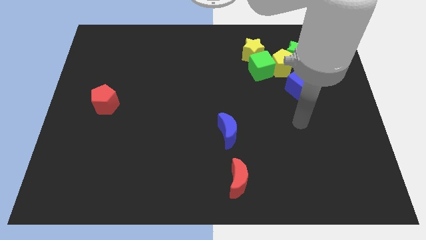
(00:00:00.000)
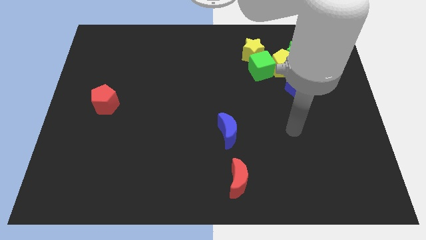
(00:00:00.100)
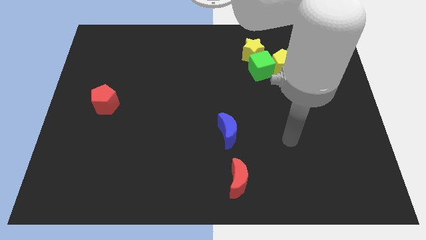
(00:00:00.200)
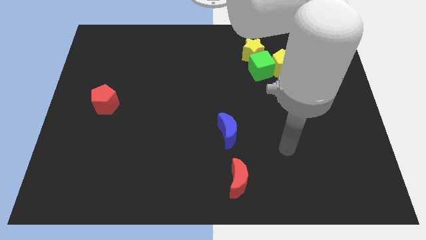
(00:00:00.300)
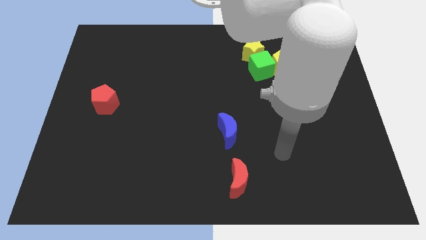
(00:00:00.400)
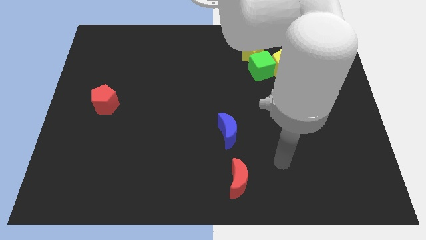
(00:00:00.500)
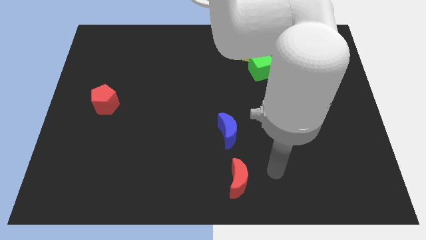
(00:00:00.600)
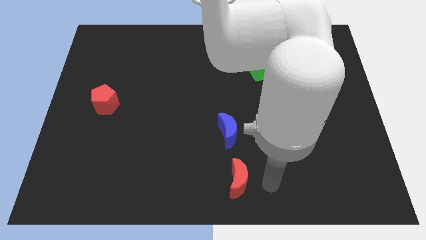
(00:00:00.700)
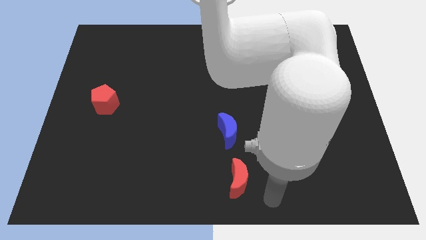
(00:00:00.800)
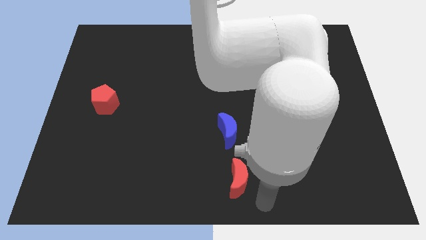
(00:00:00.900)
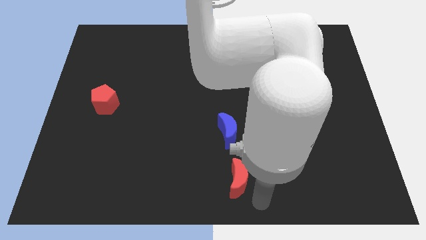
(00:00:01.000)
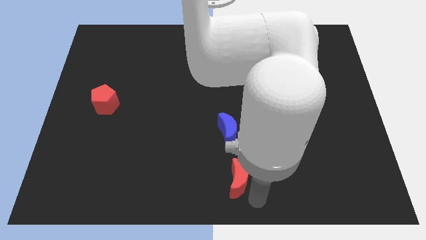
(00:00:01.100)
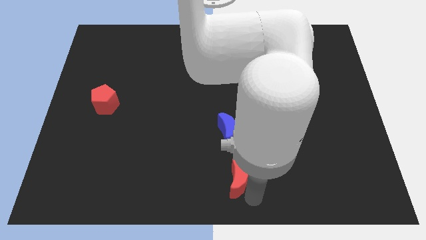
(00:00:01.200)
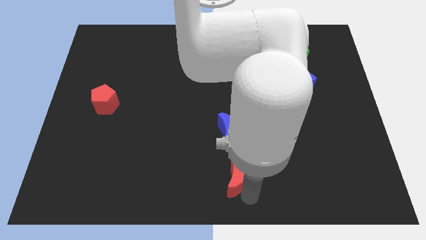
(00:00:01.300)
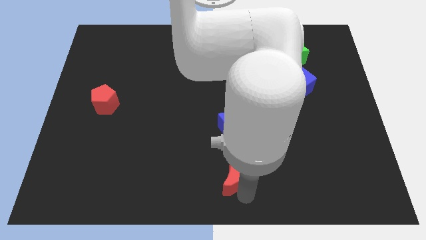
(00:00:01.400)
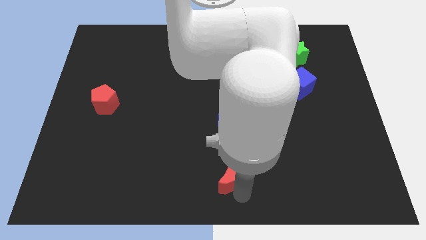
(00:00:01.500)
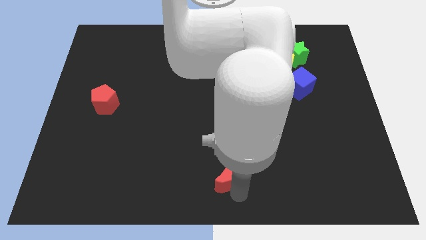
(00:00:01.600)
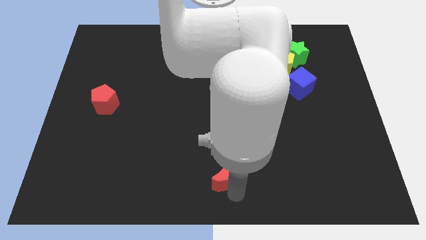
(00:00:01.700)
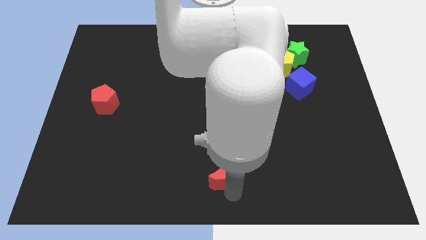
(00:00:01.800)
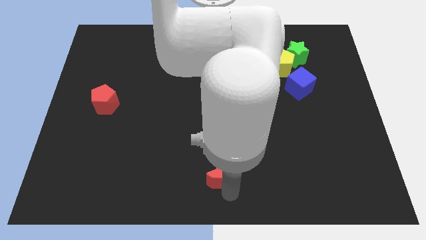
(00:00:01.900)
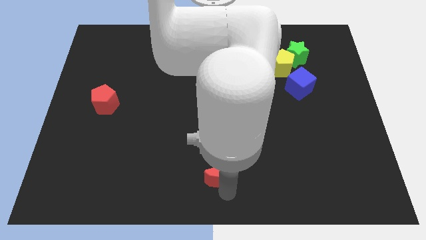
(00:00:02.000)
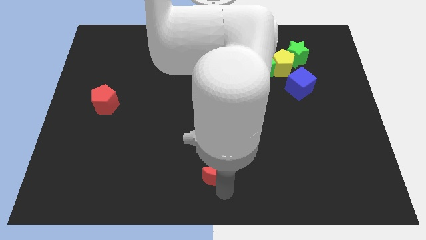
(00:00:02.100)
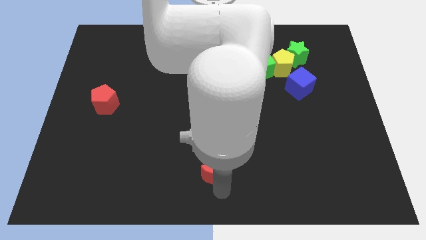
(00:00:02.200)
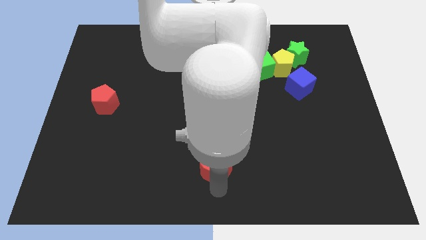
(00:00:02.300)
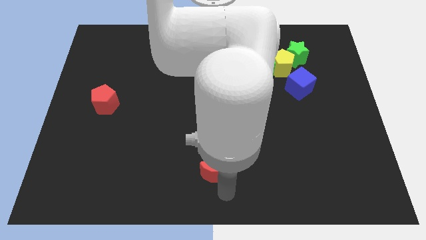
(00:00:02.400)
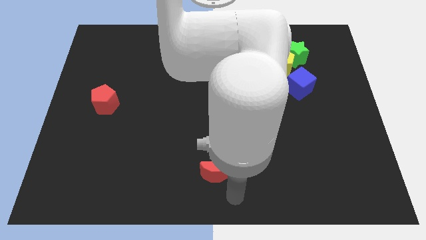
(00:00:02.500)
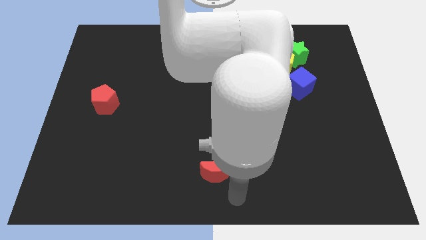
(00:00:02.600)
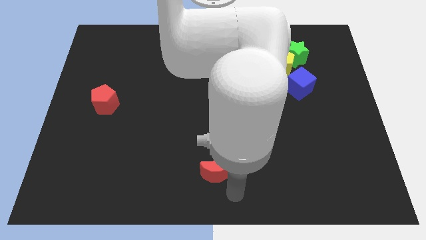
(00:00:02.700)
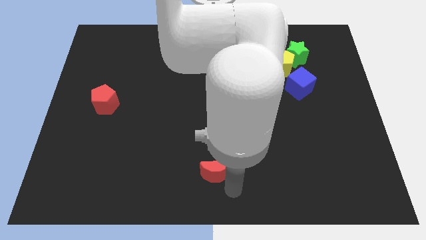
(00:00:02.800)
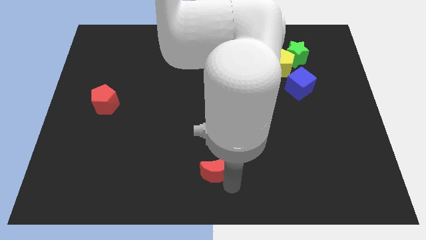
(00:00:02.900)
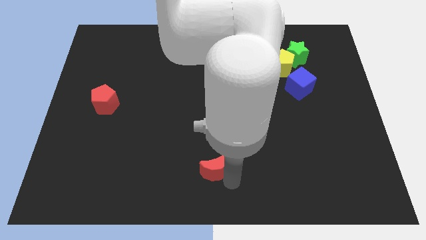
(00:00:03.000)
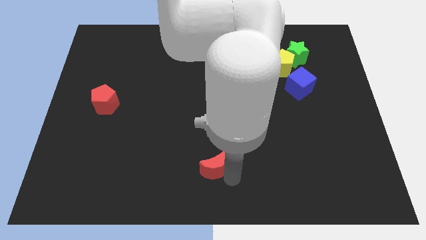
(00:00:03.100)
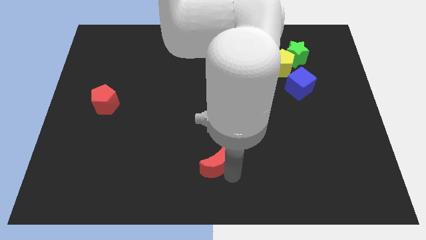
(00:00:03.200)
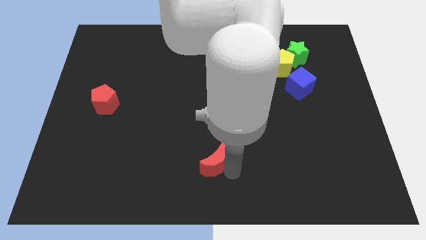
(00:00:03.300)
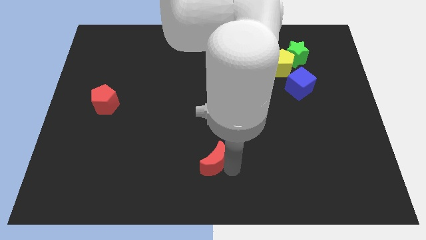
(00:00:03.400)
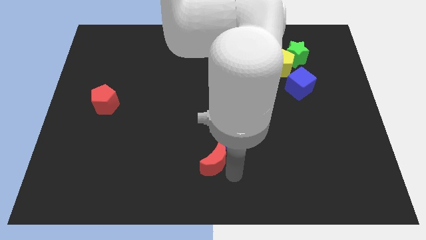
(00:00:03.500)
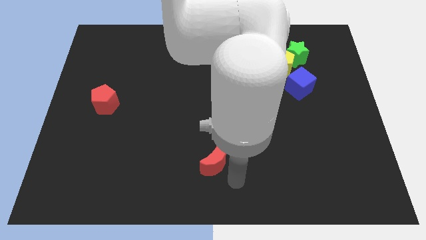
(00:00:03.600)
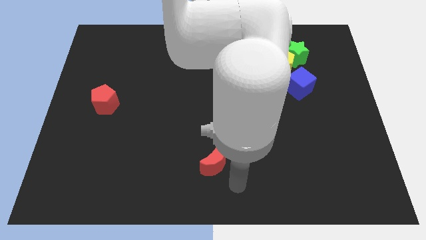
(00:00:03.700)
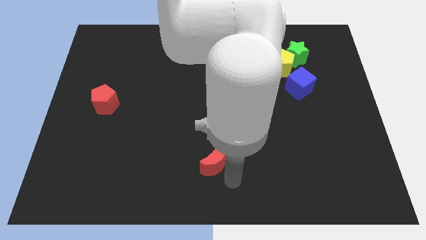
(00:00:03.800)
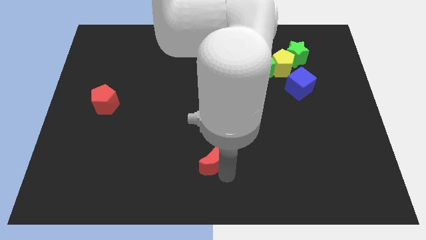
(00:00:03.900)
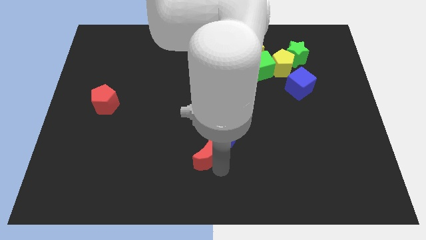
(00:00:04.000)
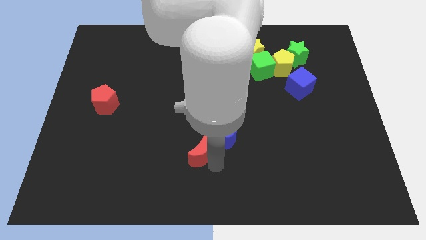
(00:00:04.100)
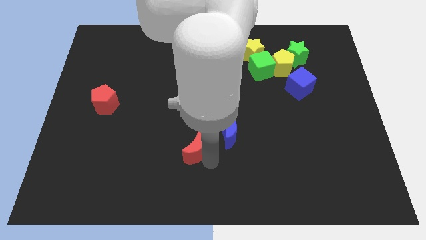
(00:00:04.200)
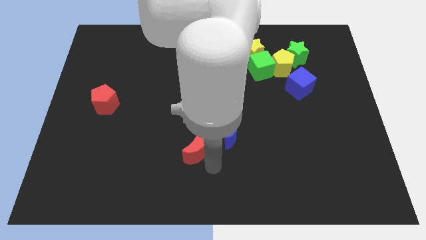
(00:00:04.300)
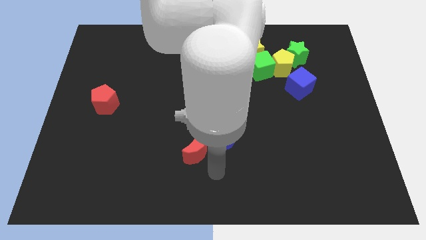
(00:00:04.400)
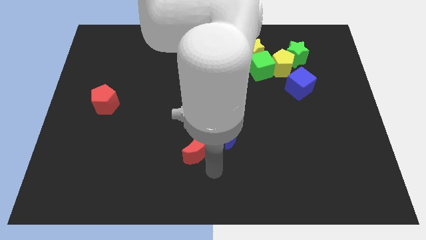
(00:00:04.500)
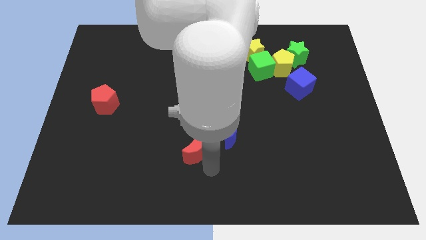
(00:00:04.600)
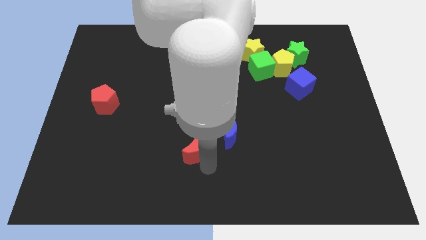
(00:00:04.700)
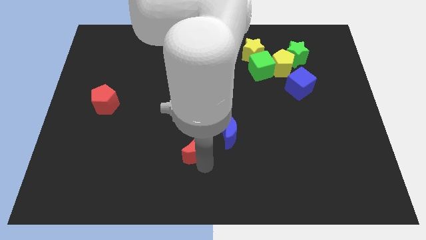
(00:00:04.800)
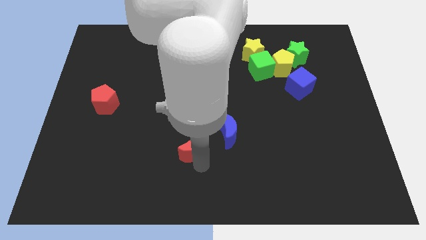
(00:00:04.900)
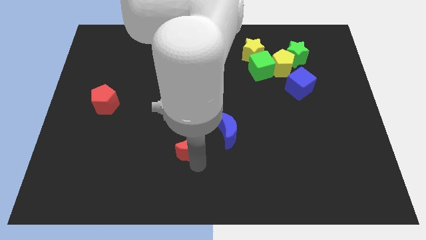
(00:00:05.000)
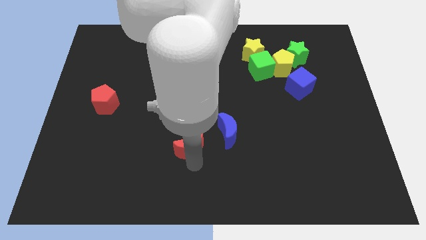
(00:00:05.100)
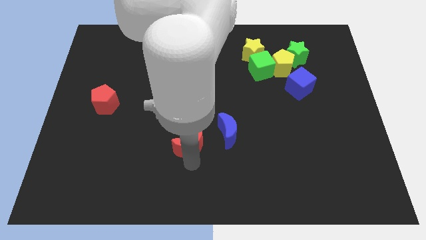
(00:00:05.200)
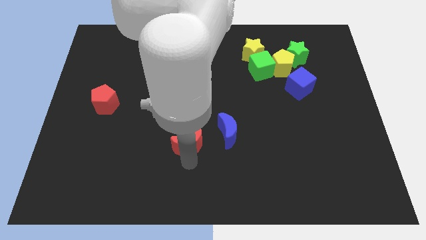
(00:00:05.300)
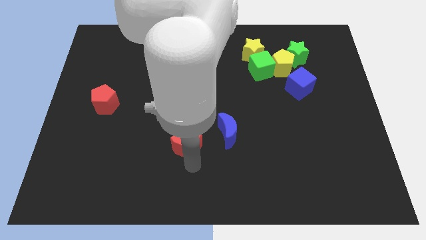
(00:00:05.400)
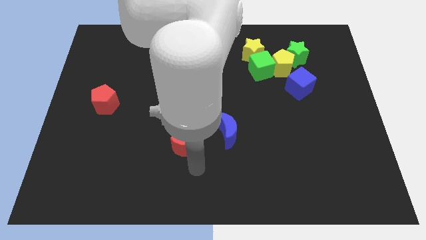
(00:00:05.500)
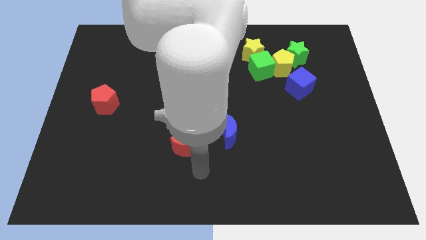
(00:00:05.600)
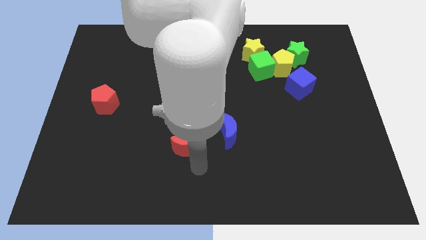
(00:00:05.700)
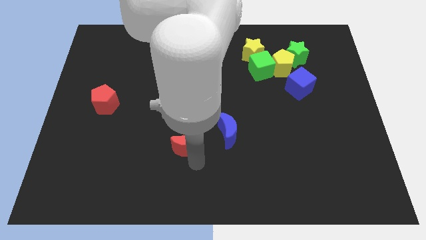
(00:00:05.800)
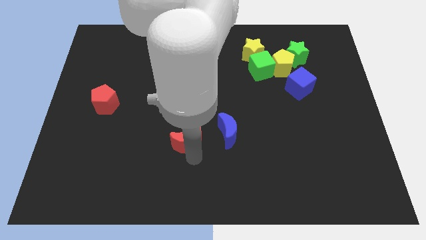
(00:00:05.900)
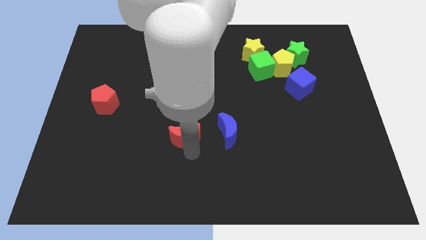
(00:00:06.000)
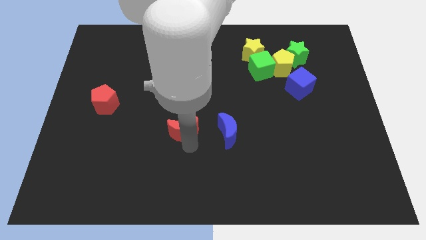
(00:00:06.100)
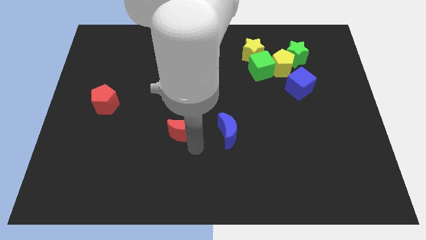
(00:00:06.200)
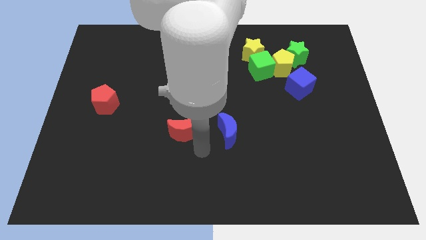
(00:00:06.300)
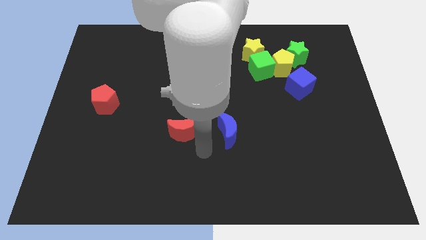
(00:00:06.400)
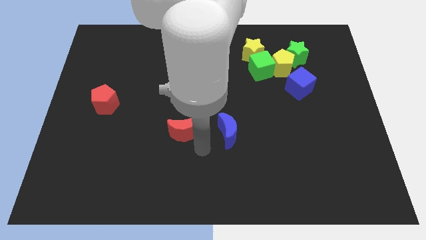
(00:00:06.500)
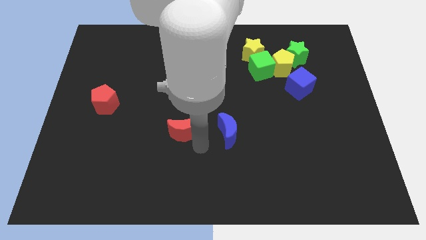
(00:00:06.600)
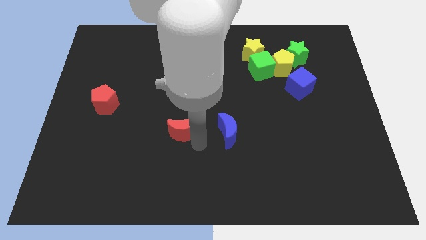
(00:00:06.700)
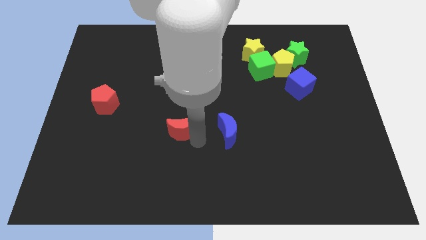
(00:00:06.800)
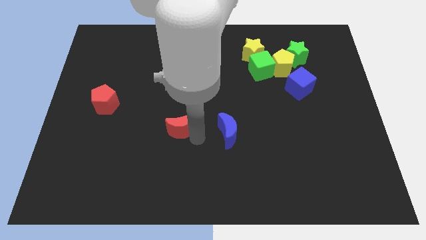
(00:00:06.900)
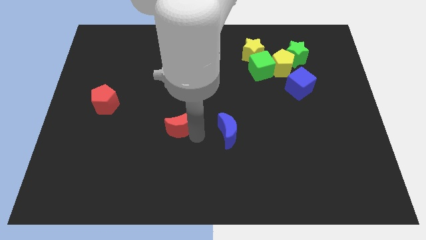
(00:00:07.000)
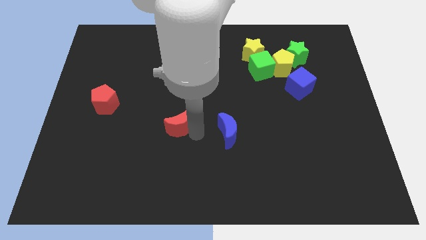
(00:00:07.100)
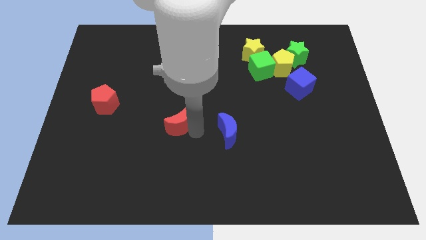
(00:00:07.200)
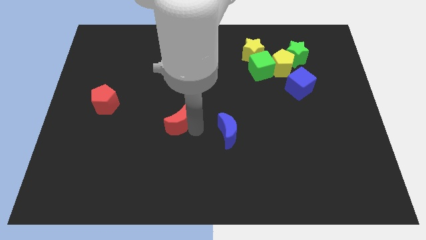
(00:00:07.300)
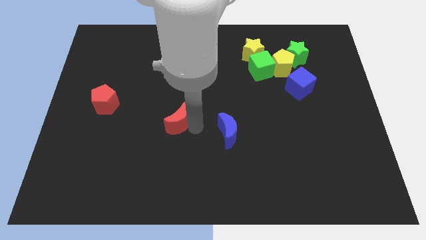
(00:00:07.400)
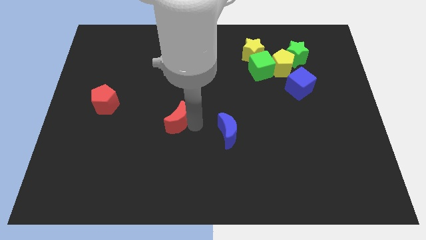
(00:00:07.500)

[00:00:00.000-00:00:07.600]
push the red moon diagonally up and left

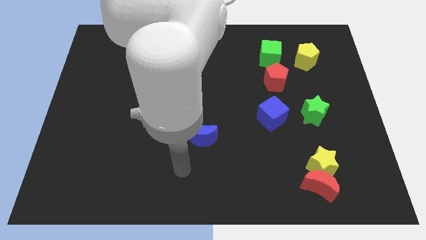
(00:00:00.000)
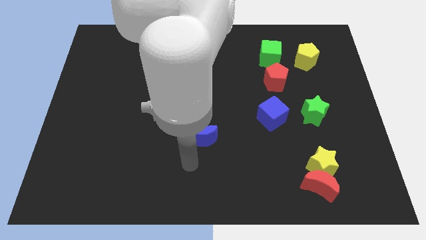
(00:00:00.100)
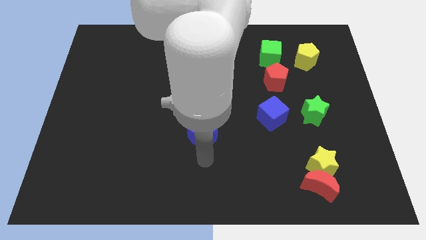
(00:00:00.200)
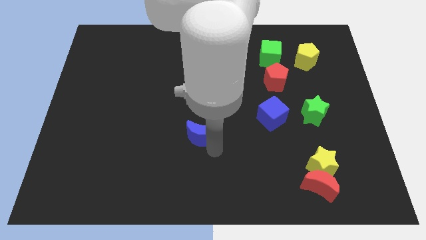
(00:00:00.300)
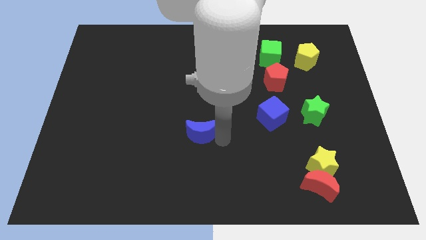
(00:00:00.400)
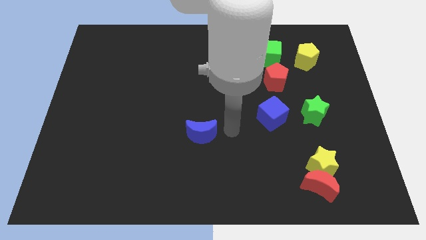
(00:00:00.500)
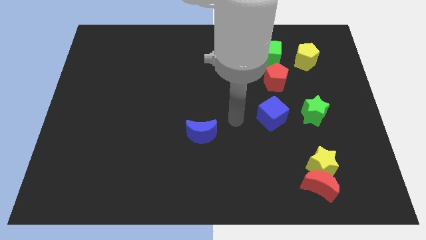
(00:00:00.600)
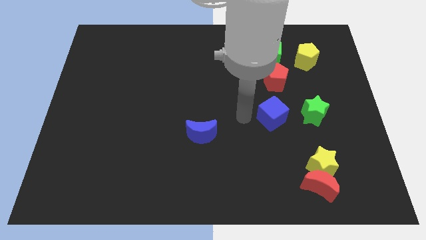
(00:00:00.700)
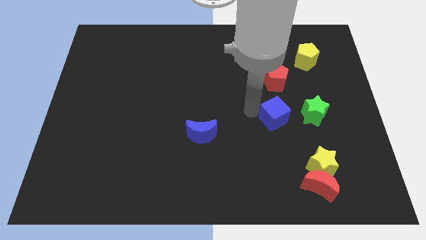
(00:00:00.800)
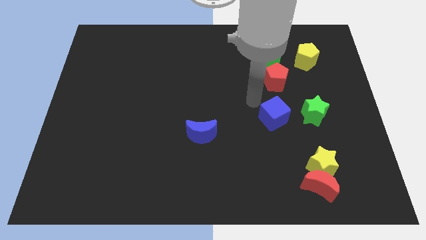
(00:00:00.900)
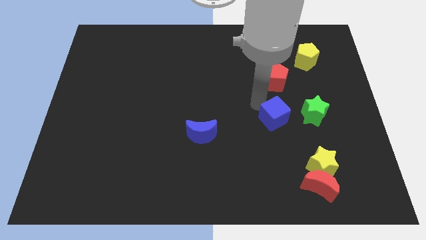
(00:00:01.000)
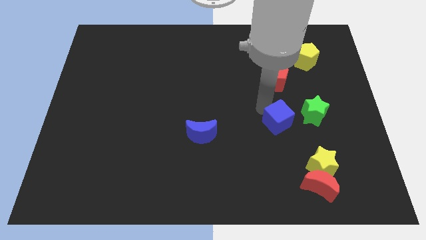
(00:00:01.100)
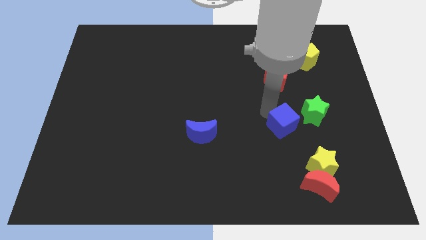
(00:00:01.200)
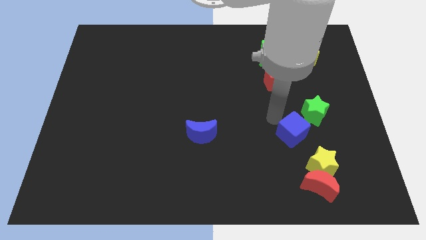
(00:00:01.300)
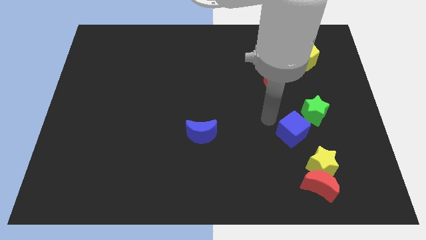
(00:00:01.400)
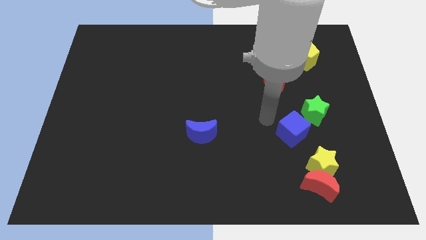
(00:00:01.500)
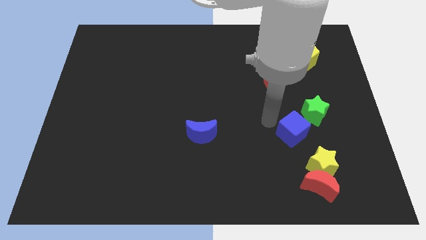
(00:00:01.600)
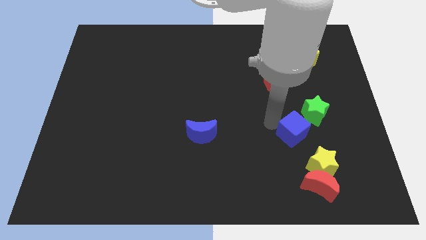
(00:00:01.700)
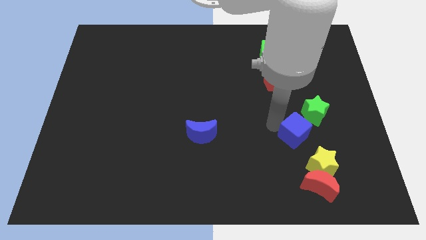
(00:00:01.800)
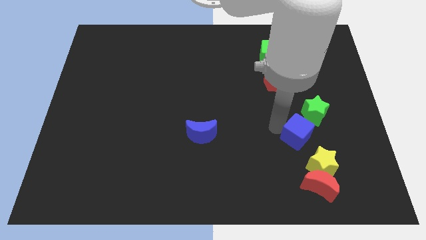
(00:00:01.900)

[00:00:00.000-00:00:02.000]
slightly slide the blue cube downwards and right diagonally
